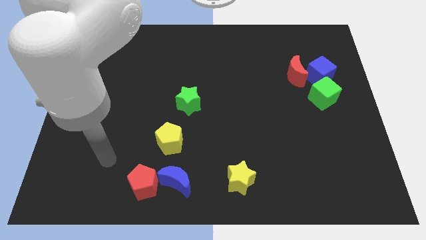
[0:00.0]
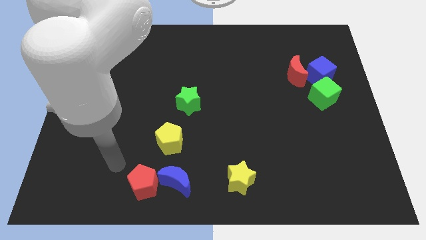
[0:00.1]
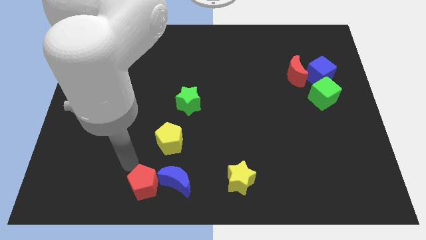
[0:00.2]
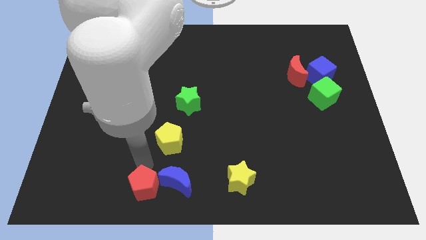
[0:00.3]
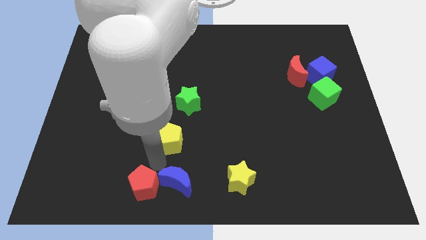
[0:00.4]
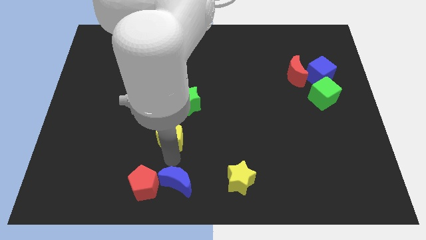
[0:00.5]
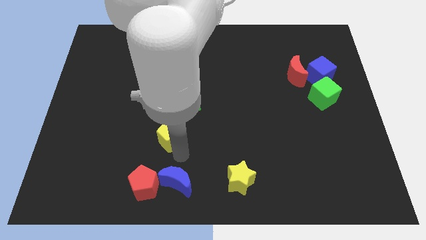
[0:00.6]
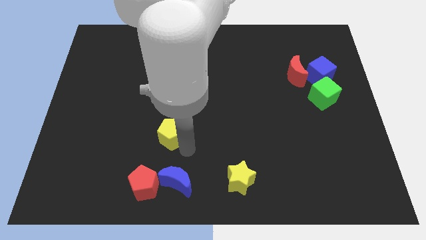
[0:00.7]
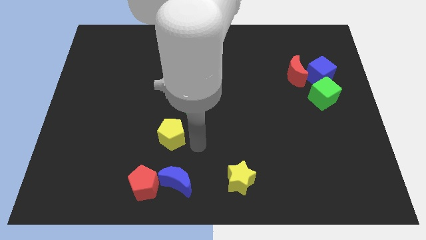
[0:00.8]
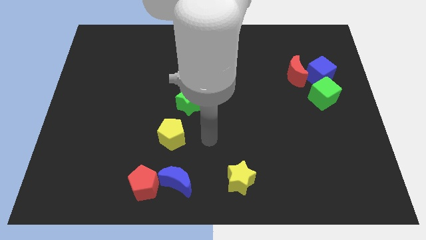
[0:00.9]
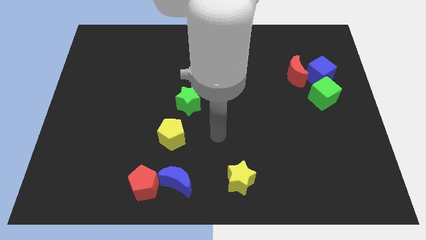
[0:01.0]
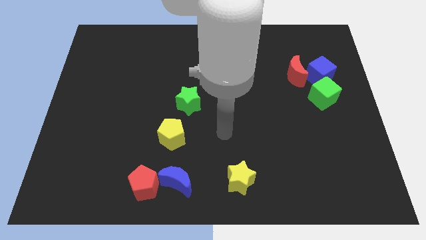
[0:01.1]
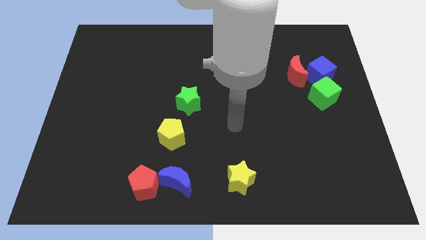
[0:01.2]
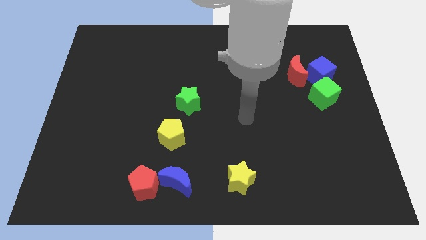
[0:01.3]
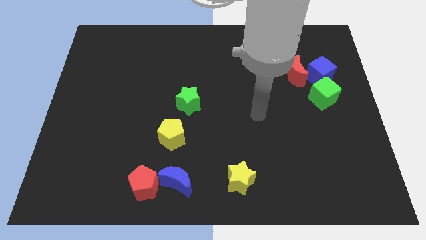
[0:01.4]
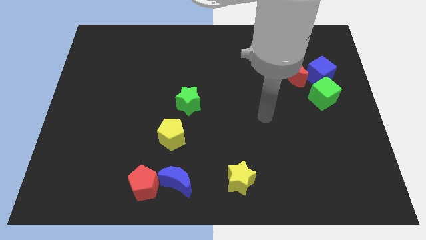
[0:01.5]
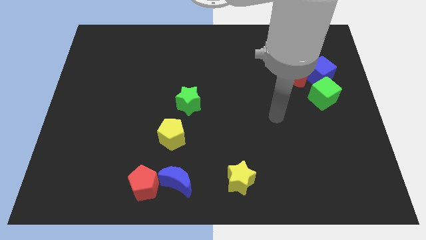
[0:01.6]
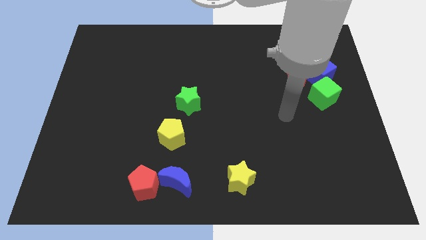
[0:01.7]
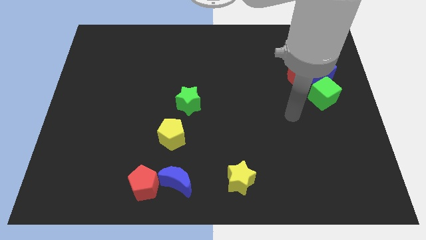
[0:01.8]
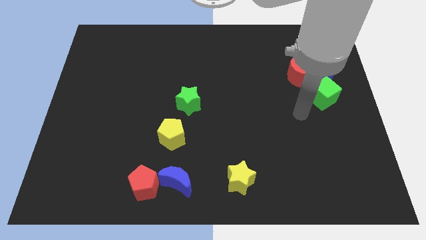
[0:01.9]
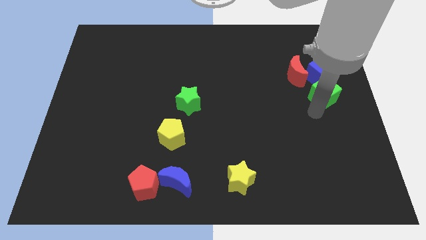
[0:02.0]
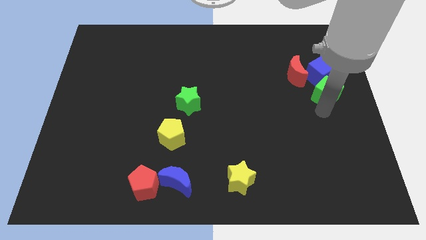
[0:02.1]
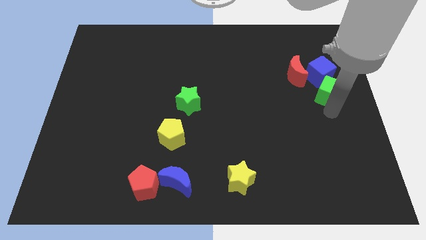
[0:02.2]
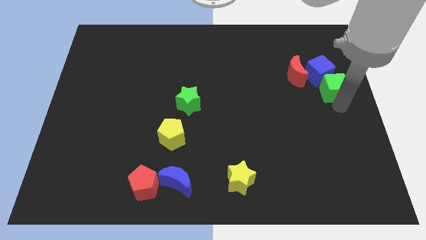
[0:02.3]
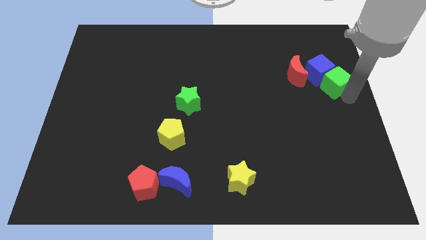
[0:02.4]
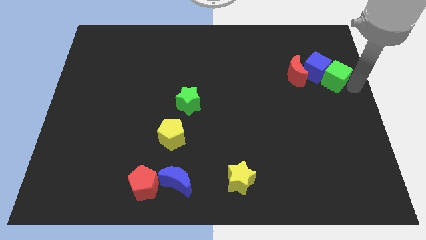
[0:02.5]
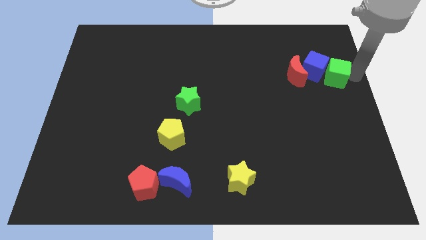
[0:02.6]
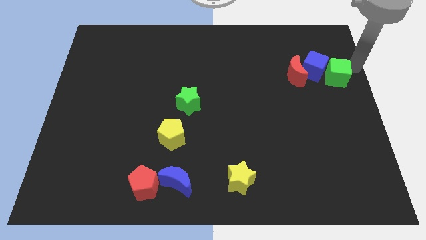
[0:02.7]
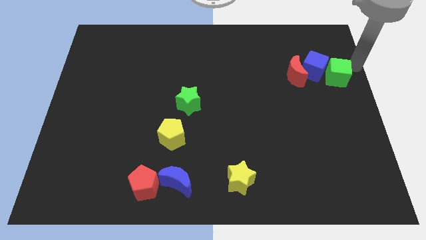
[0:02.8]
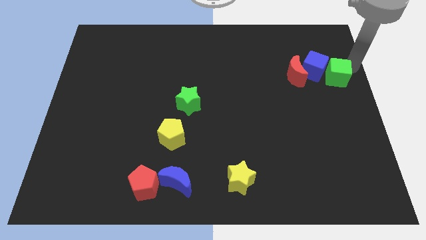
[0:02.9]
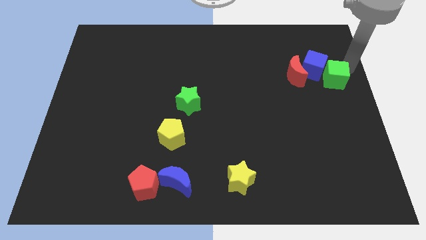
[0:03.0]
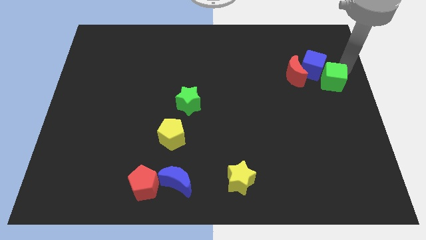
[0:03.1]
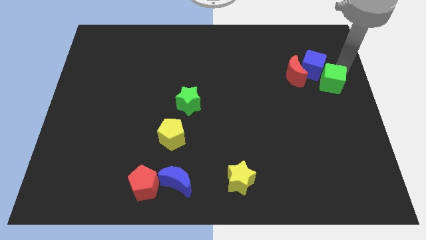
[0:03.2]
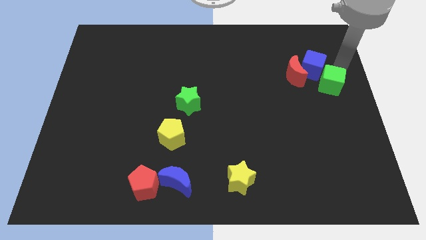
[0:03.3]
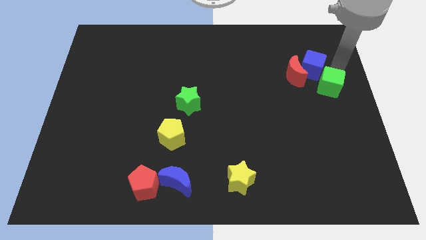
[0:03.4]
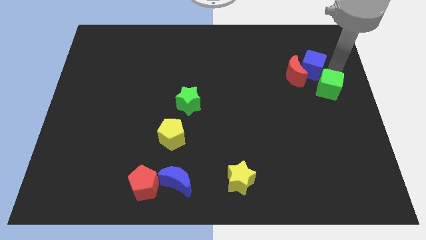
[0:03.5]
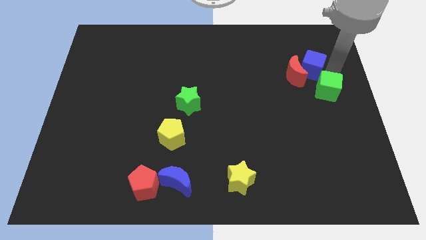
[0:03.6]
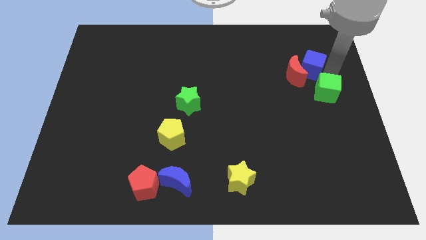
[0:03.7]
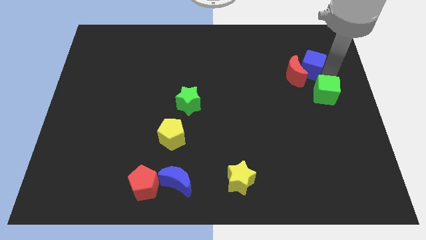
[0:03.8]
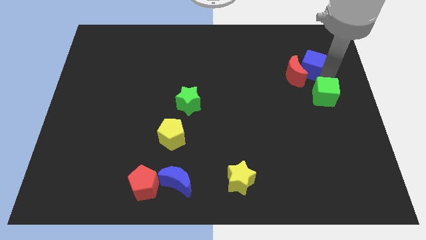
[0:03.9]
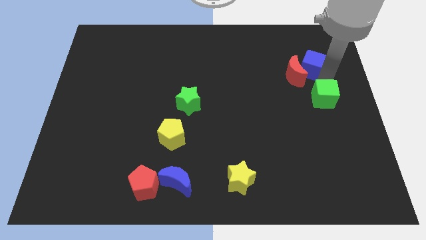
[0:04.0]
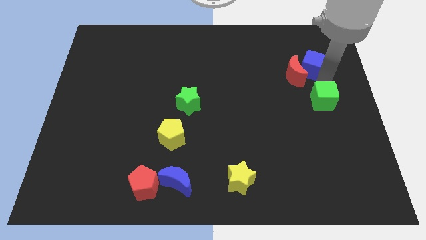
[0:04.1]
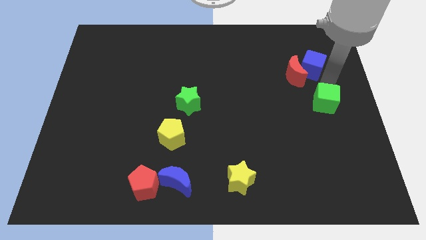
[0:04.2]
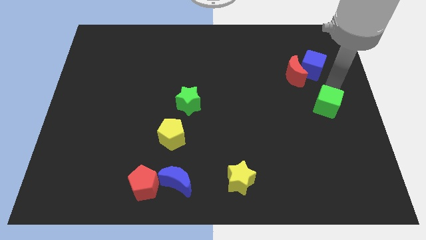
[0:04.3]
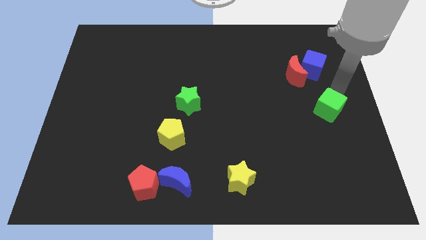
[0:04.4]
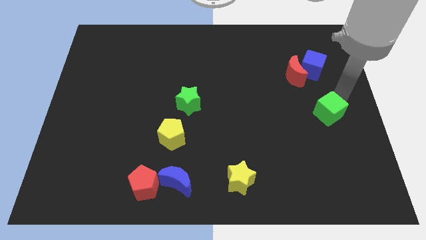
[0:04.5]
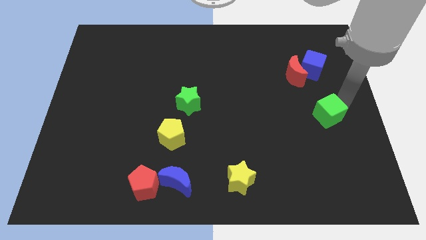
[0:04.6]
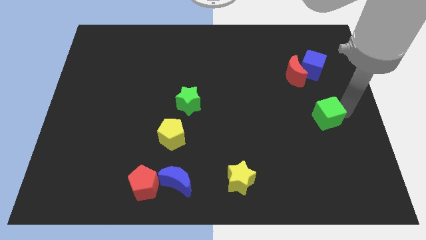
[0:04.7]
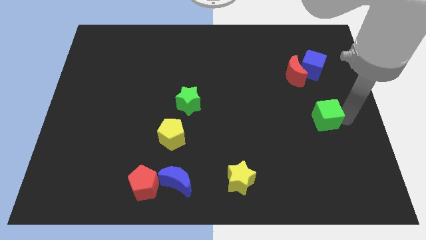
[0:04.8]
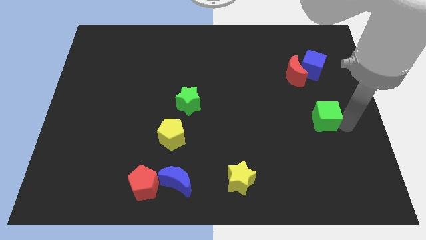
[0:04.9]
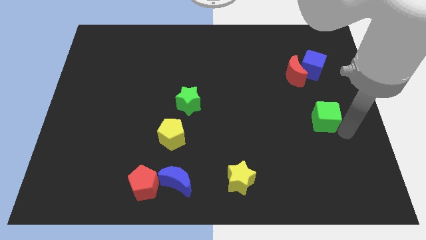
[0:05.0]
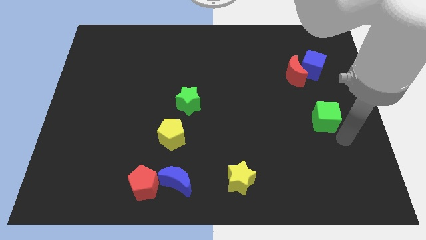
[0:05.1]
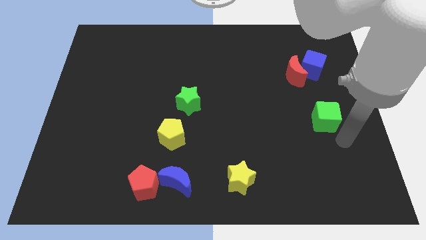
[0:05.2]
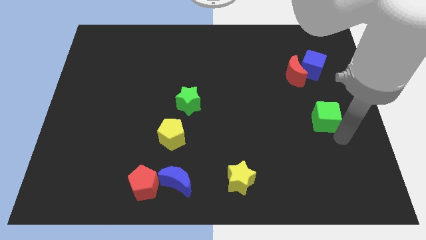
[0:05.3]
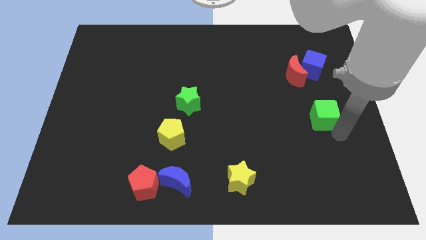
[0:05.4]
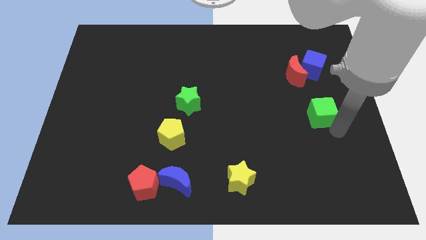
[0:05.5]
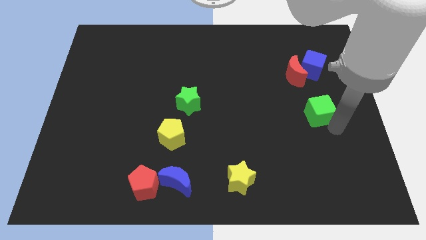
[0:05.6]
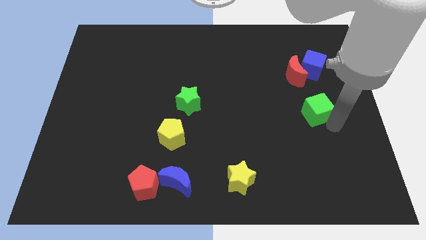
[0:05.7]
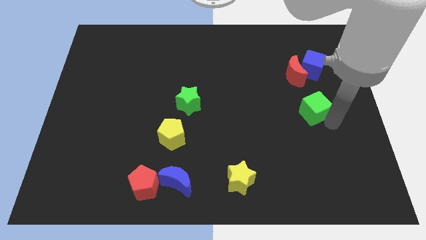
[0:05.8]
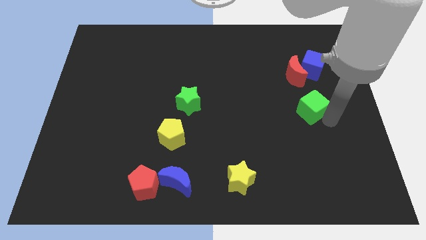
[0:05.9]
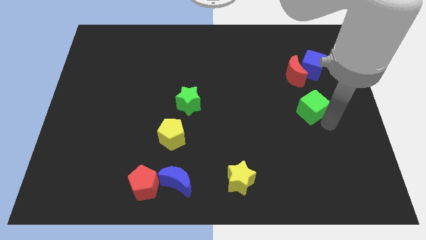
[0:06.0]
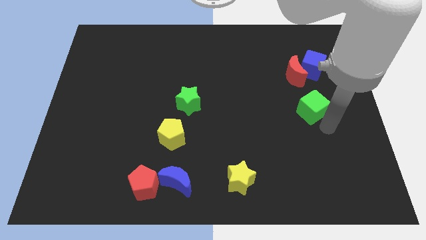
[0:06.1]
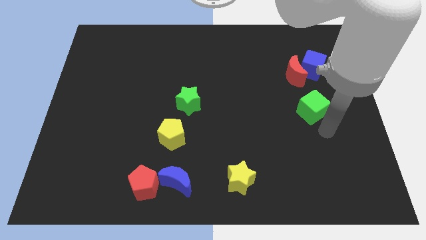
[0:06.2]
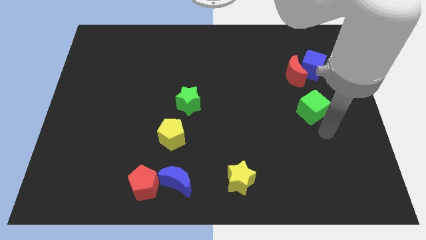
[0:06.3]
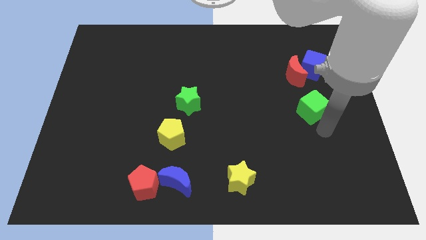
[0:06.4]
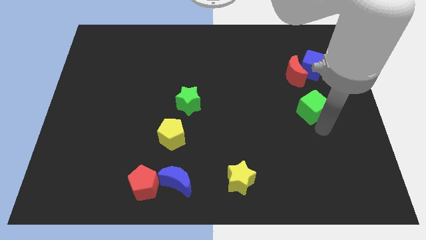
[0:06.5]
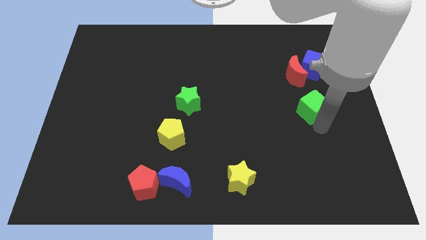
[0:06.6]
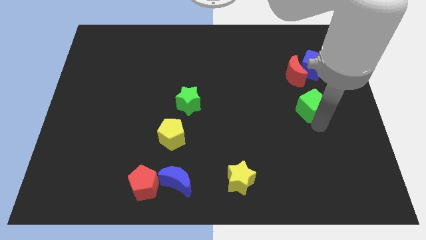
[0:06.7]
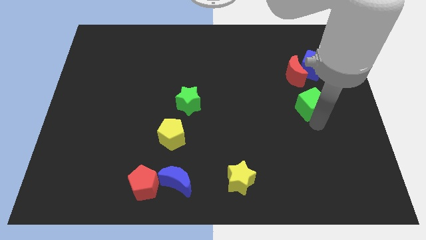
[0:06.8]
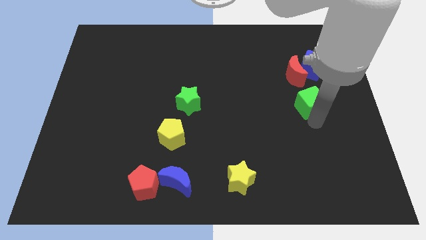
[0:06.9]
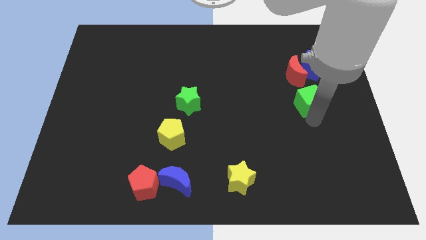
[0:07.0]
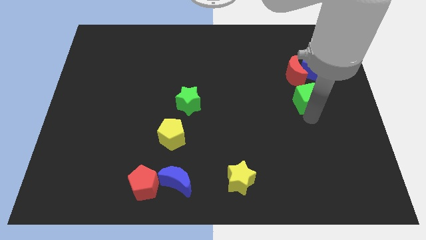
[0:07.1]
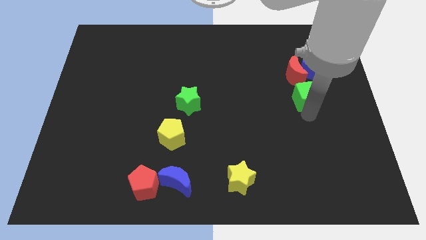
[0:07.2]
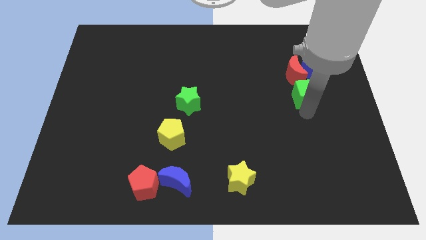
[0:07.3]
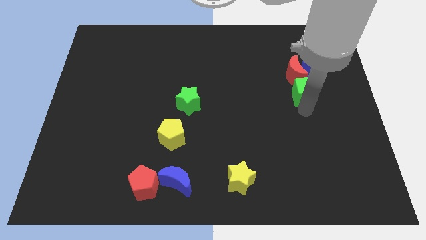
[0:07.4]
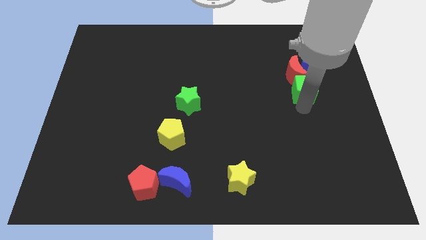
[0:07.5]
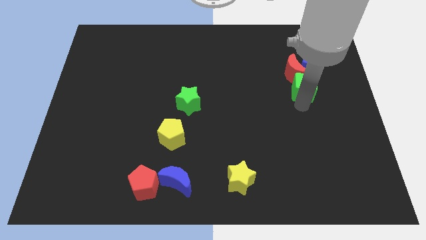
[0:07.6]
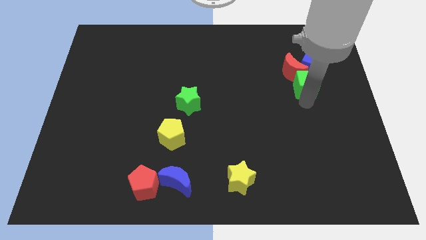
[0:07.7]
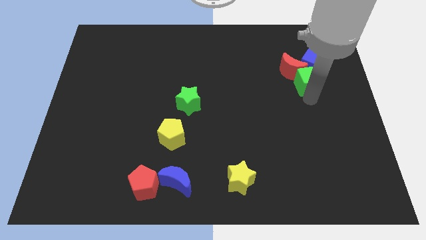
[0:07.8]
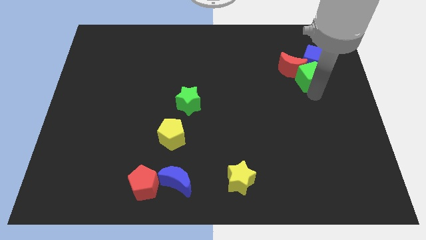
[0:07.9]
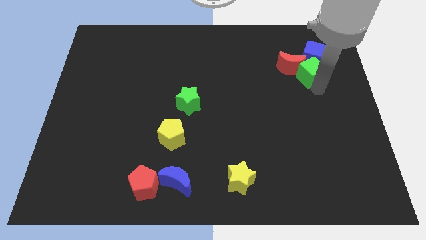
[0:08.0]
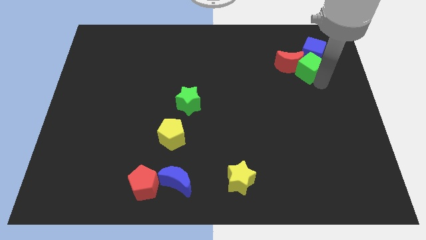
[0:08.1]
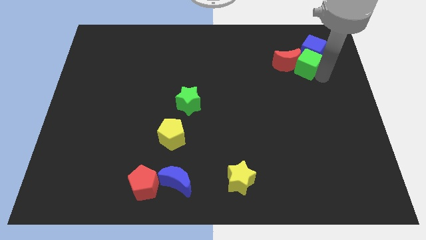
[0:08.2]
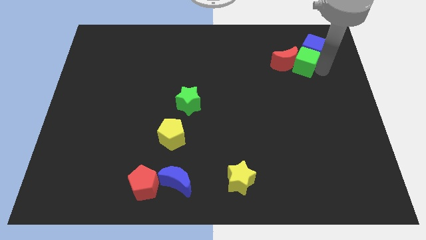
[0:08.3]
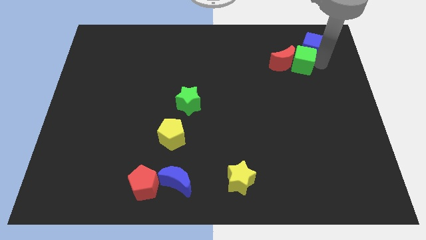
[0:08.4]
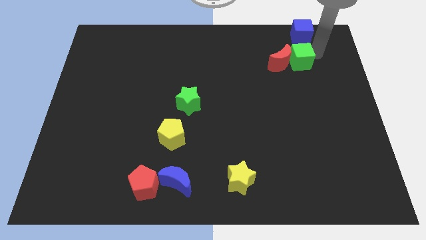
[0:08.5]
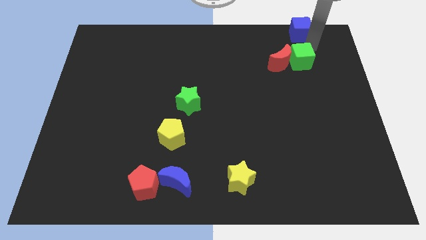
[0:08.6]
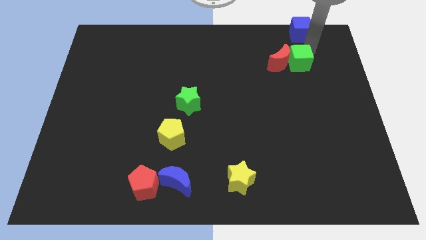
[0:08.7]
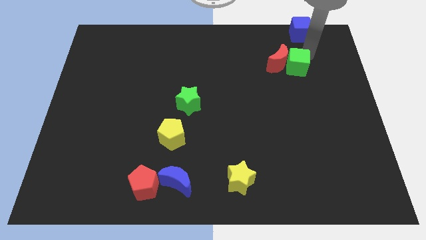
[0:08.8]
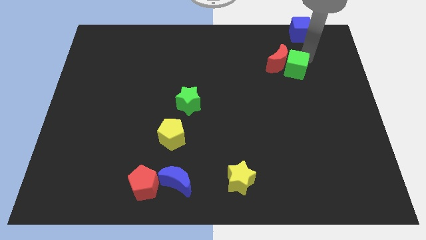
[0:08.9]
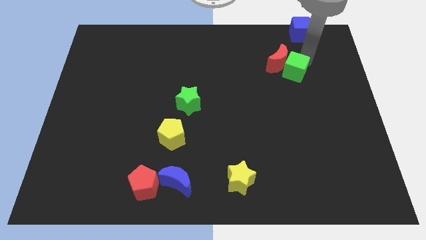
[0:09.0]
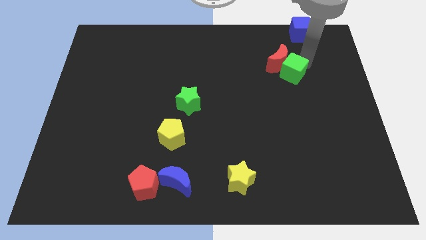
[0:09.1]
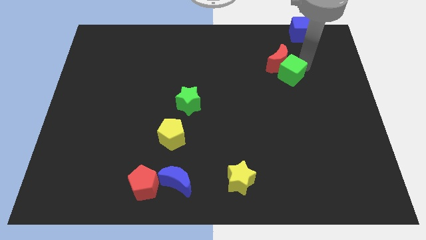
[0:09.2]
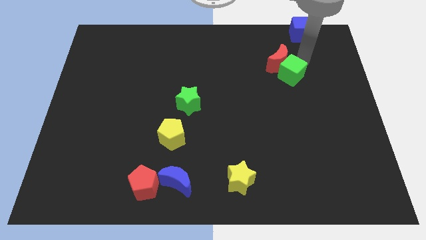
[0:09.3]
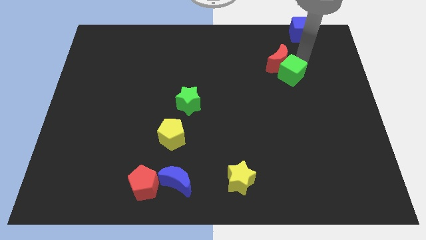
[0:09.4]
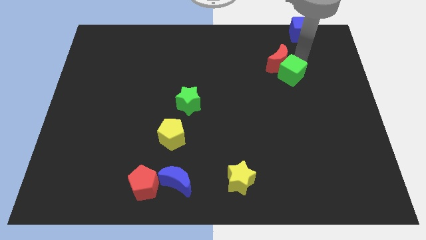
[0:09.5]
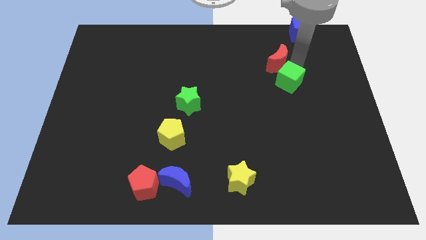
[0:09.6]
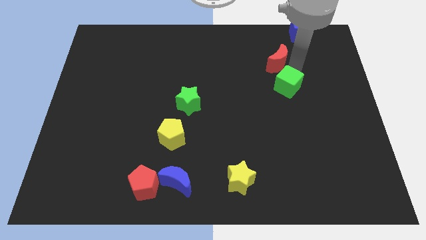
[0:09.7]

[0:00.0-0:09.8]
move the green cube slightly to the left
